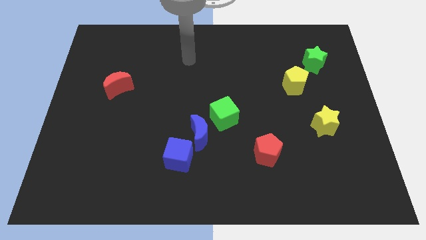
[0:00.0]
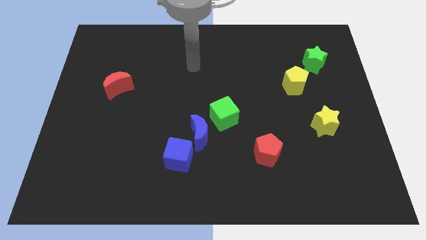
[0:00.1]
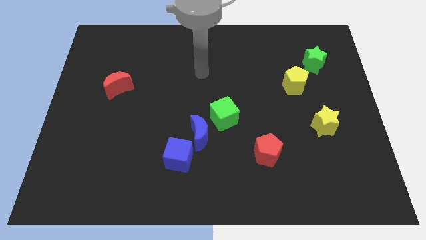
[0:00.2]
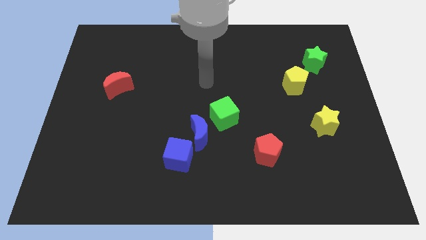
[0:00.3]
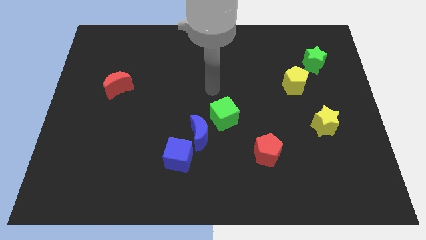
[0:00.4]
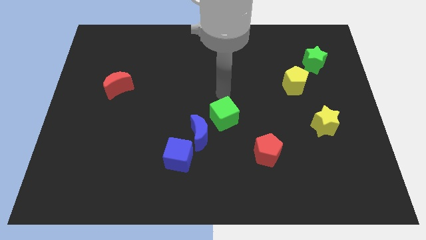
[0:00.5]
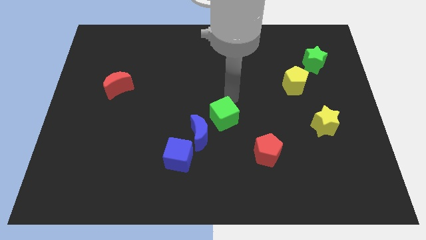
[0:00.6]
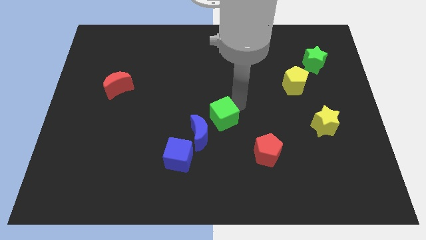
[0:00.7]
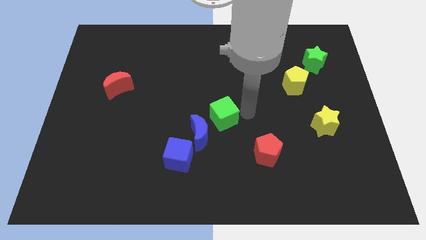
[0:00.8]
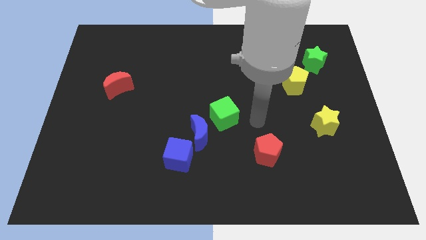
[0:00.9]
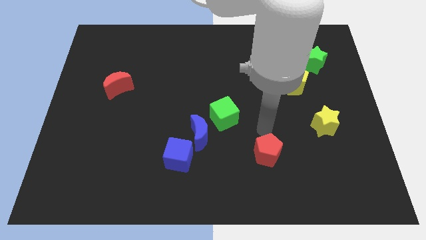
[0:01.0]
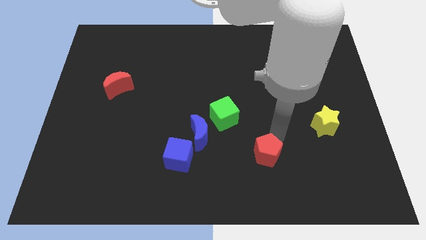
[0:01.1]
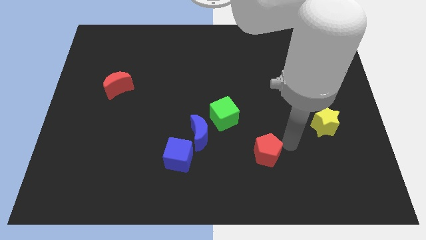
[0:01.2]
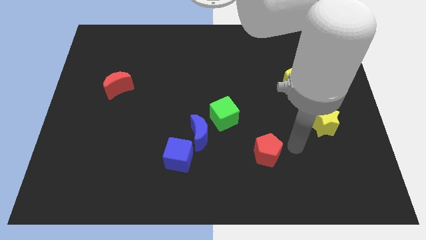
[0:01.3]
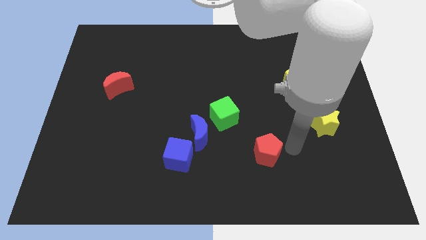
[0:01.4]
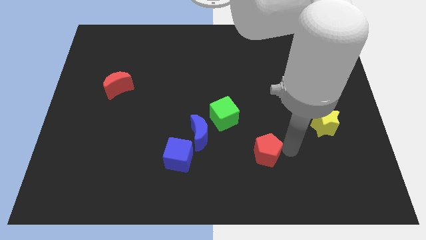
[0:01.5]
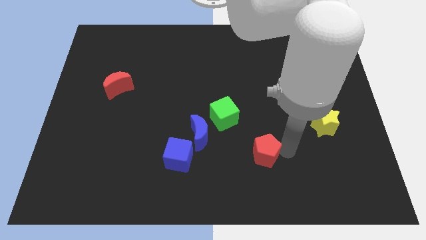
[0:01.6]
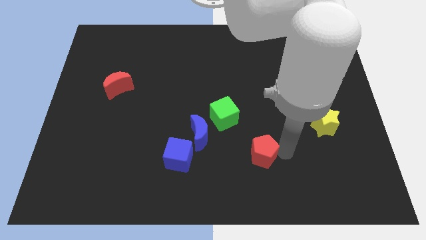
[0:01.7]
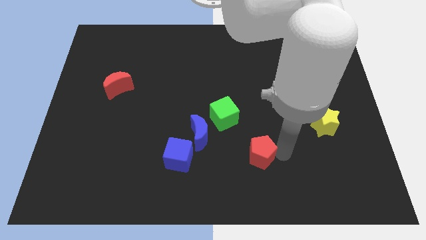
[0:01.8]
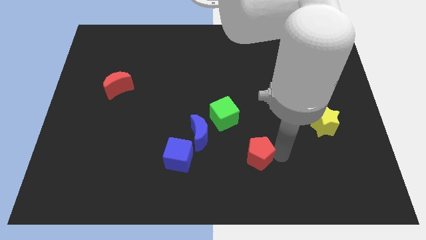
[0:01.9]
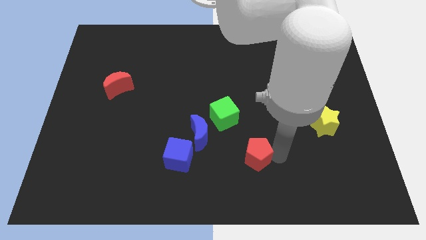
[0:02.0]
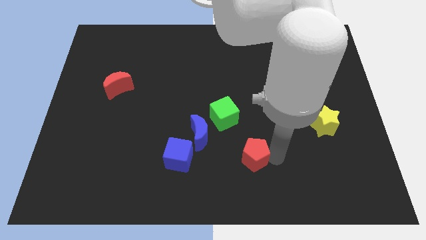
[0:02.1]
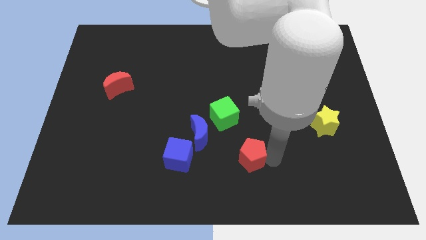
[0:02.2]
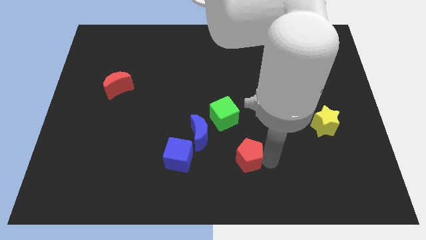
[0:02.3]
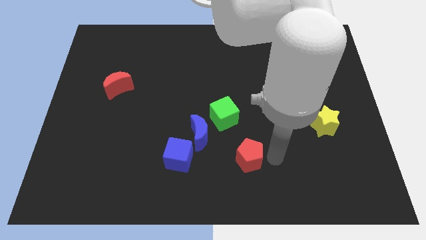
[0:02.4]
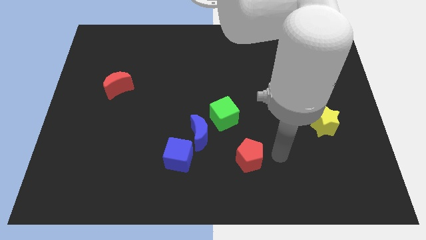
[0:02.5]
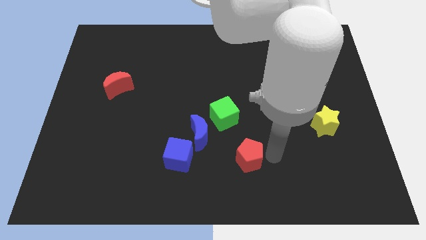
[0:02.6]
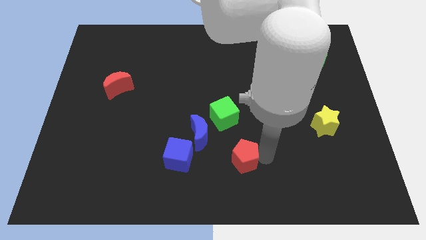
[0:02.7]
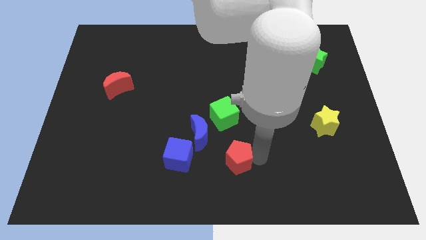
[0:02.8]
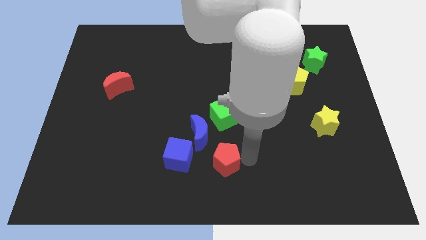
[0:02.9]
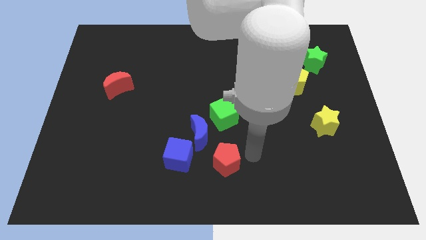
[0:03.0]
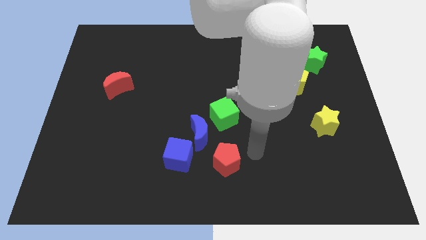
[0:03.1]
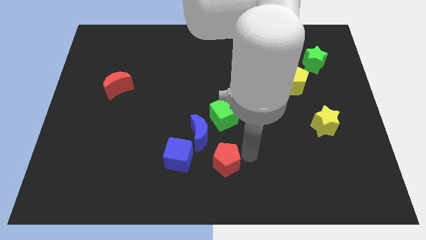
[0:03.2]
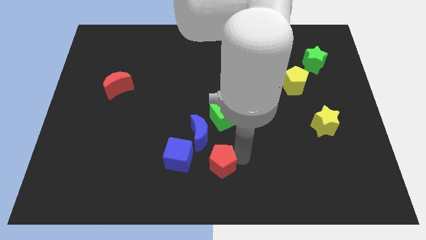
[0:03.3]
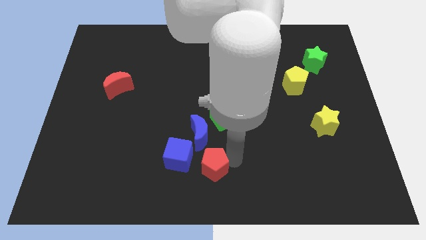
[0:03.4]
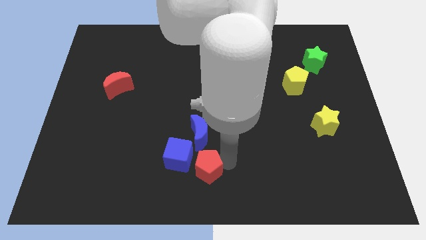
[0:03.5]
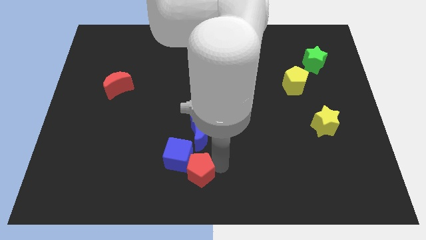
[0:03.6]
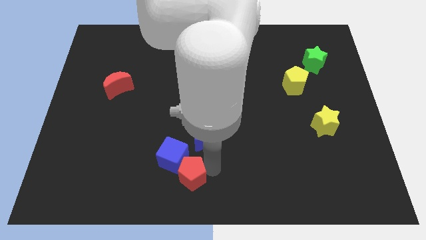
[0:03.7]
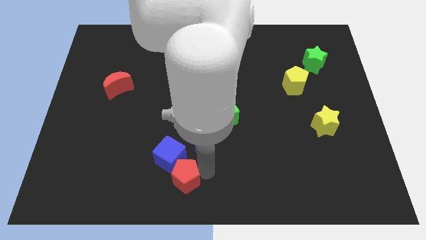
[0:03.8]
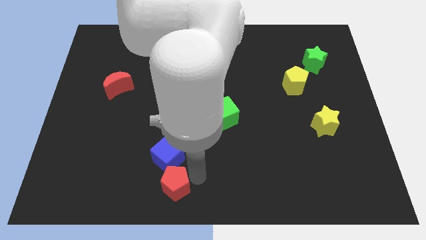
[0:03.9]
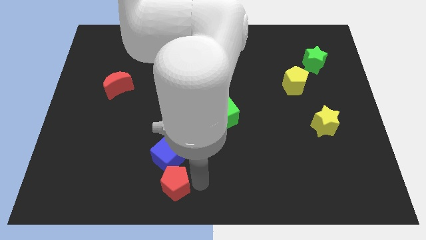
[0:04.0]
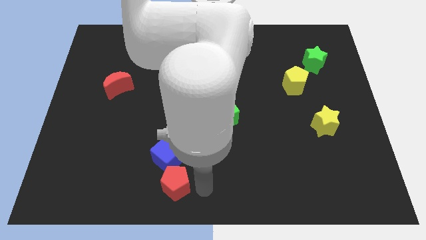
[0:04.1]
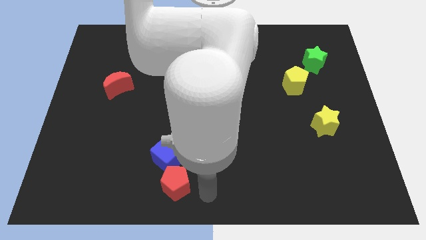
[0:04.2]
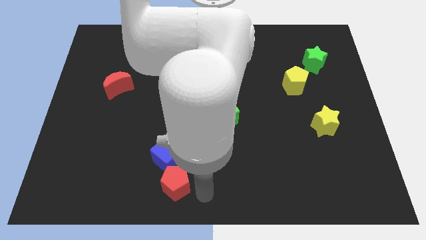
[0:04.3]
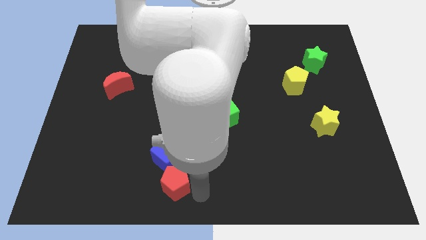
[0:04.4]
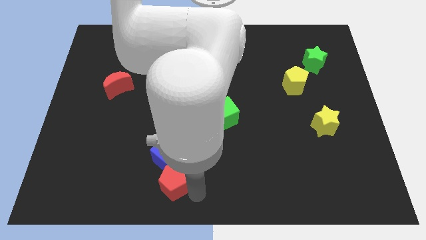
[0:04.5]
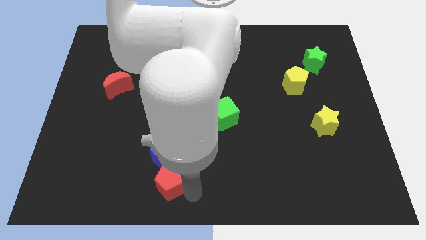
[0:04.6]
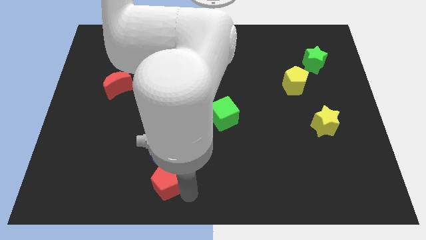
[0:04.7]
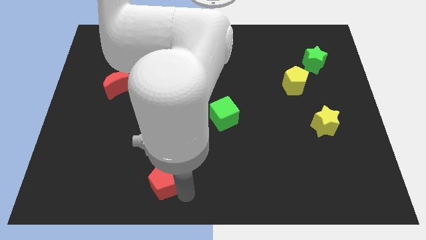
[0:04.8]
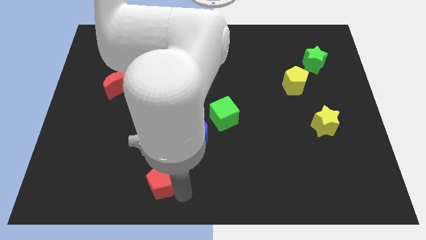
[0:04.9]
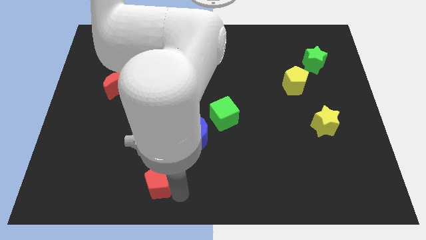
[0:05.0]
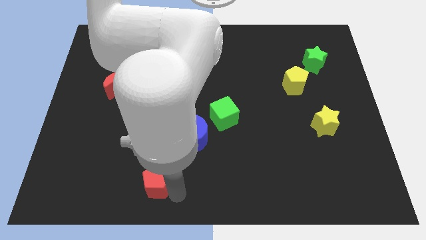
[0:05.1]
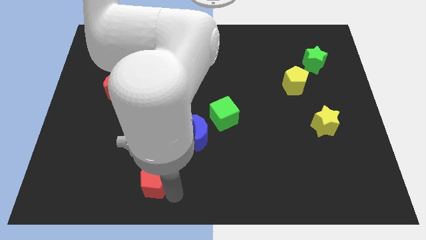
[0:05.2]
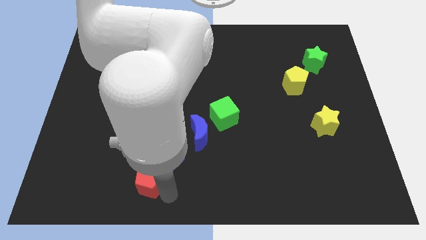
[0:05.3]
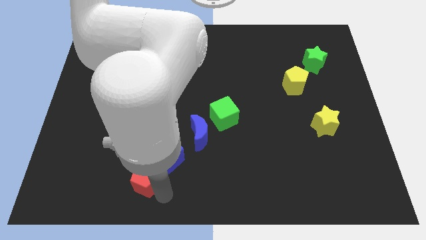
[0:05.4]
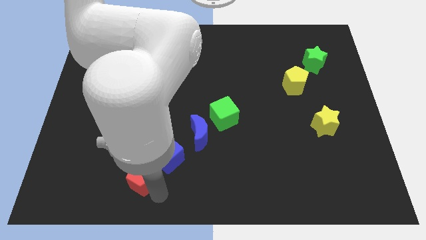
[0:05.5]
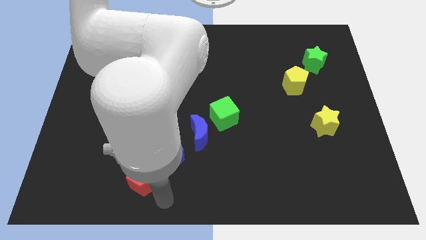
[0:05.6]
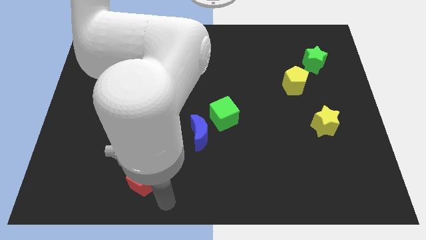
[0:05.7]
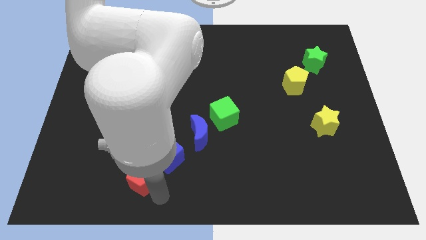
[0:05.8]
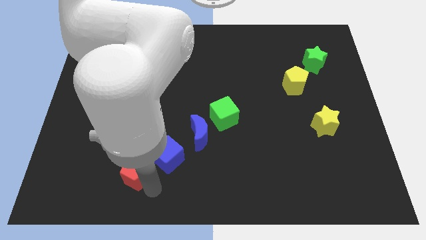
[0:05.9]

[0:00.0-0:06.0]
move the red pentagon to the left side of the blue cube

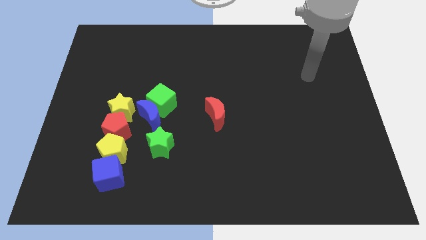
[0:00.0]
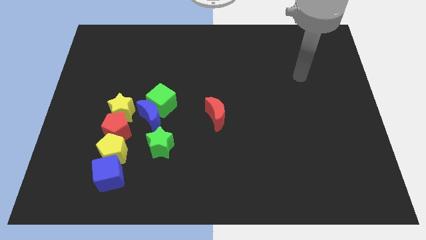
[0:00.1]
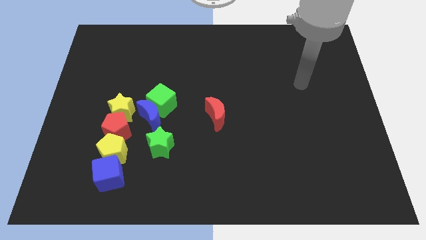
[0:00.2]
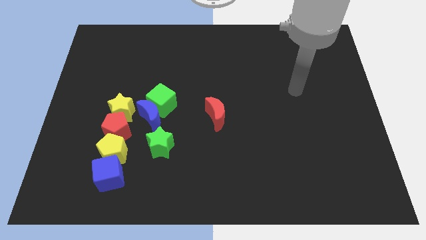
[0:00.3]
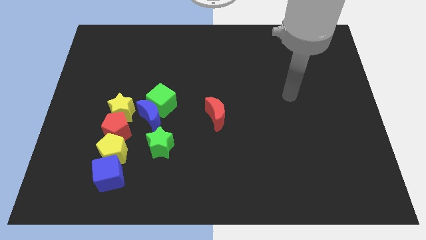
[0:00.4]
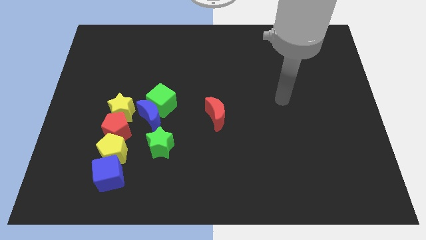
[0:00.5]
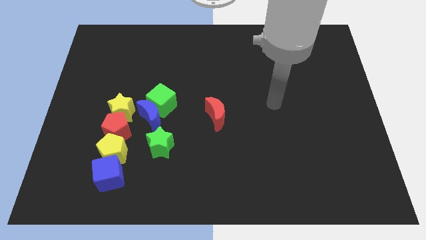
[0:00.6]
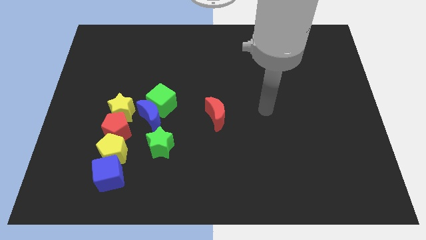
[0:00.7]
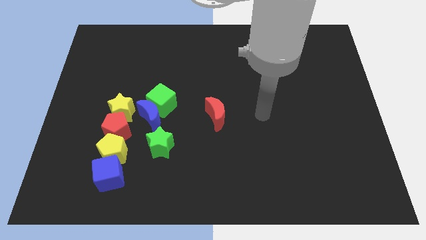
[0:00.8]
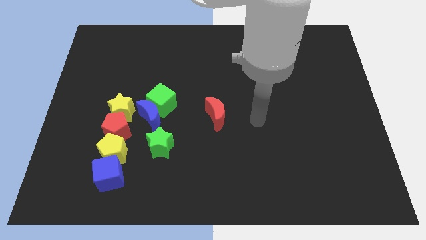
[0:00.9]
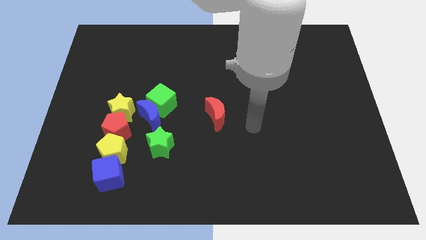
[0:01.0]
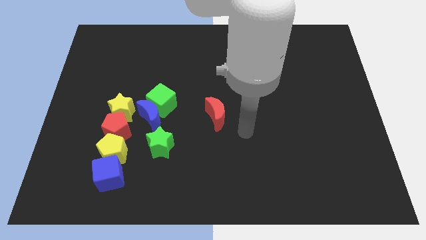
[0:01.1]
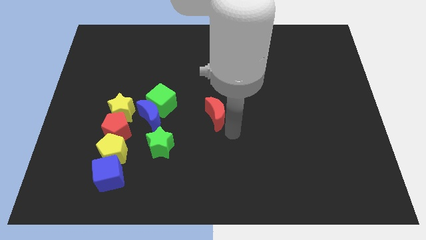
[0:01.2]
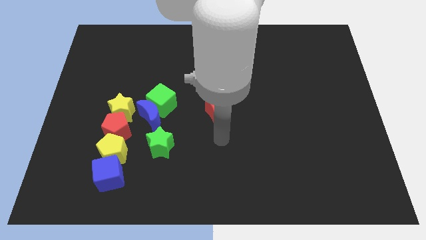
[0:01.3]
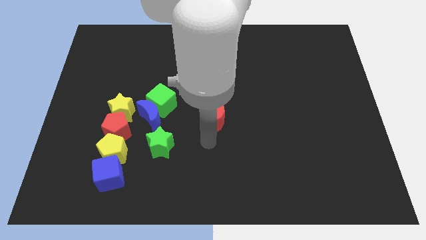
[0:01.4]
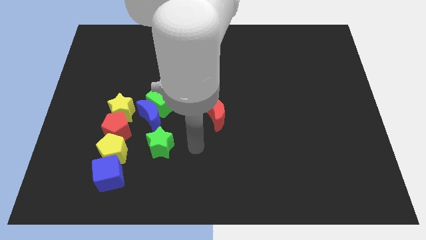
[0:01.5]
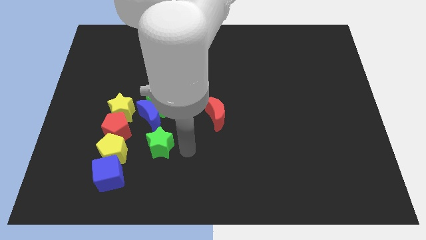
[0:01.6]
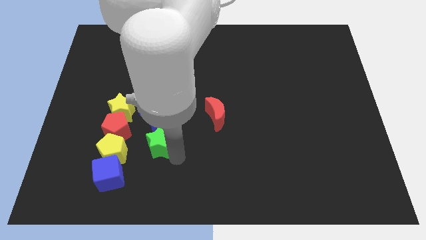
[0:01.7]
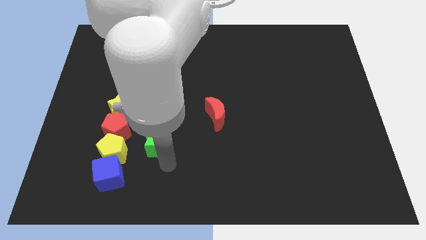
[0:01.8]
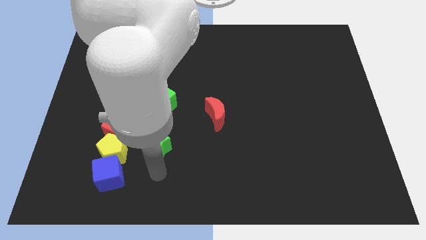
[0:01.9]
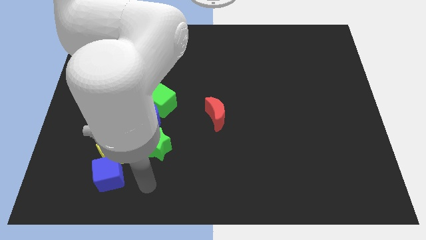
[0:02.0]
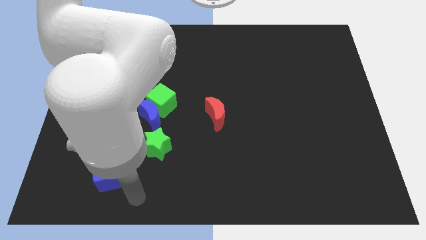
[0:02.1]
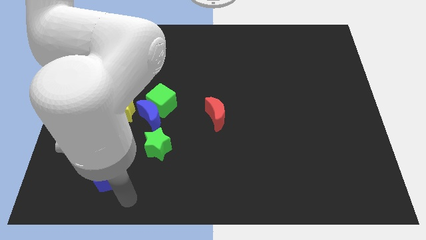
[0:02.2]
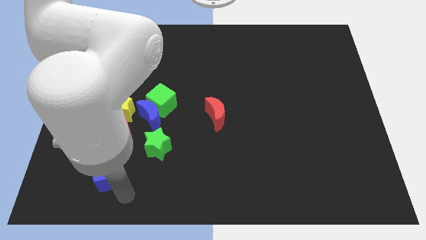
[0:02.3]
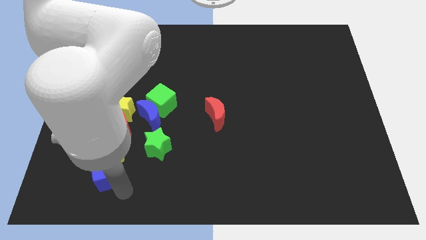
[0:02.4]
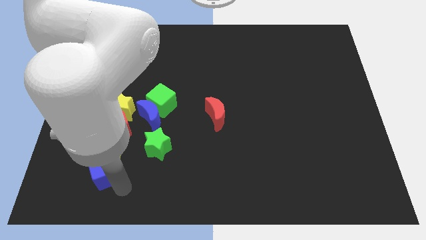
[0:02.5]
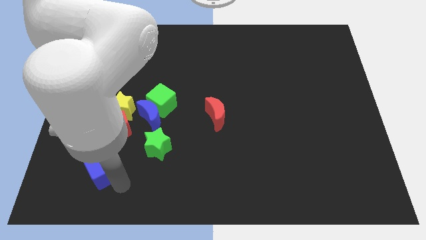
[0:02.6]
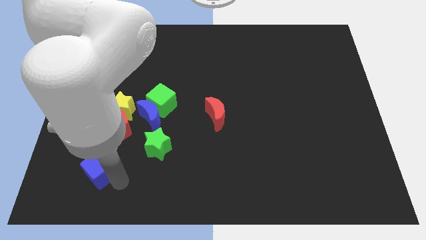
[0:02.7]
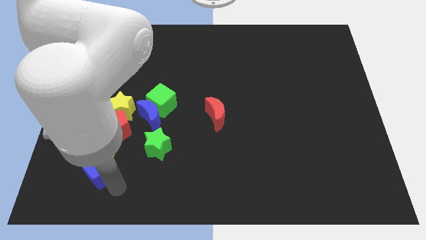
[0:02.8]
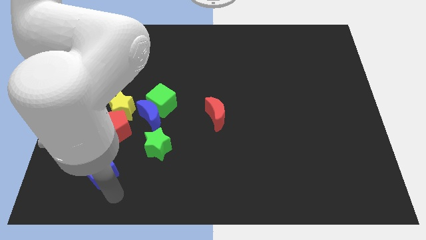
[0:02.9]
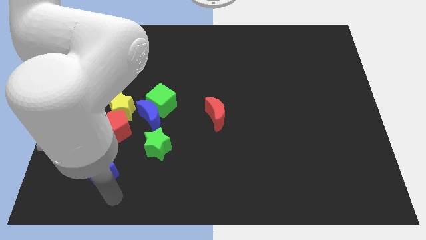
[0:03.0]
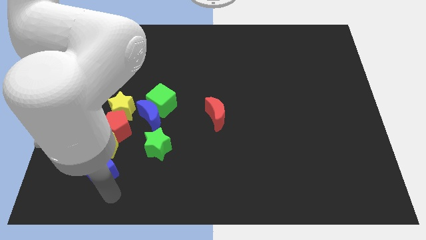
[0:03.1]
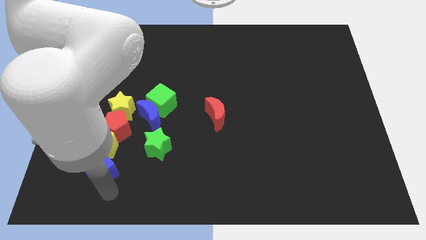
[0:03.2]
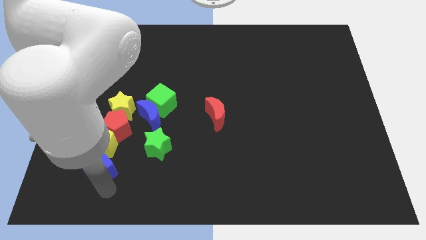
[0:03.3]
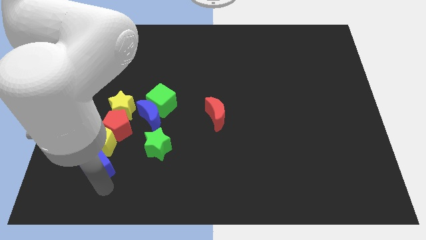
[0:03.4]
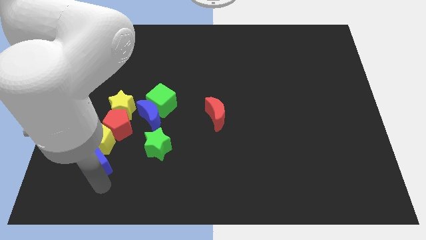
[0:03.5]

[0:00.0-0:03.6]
slide the blue cube to the bottom left of the red pentagon
